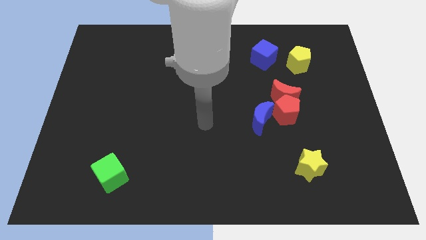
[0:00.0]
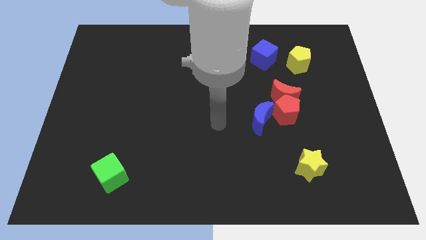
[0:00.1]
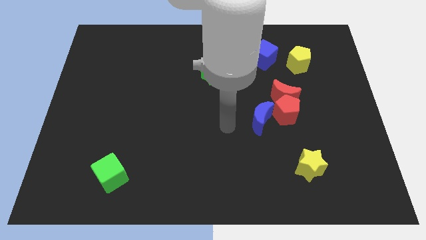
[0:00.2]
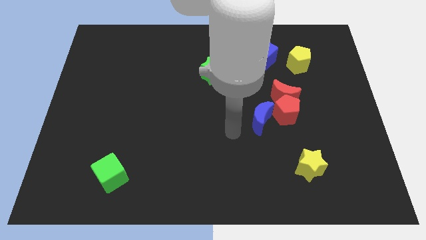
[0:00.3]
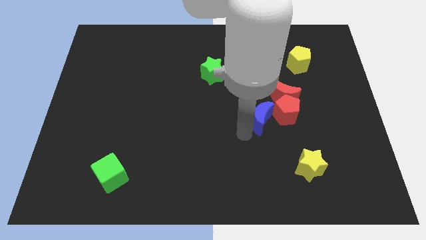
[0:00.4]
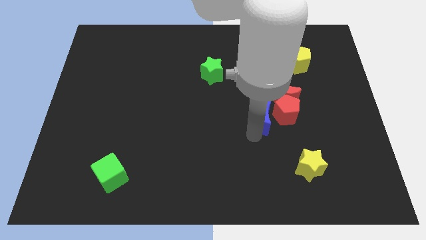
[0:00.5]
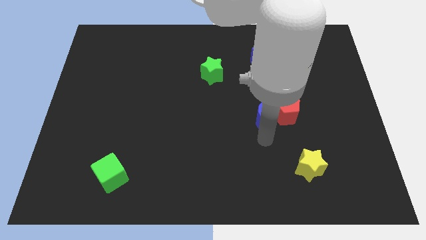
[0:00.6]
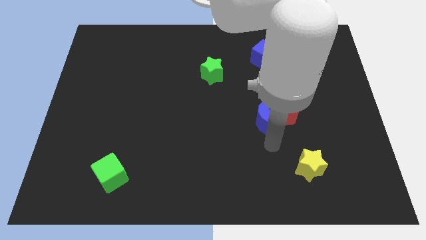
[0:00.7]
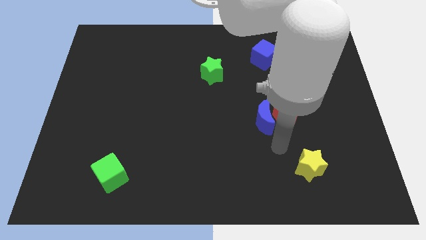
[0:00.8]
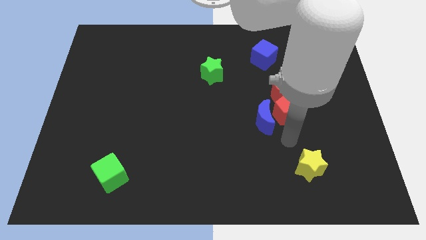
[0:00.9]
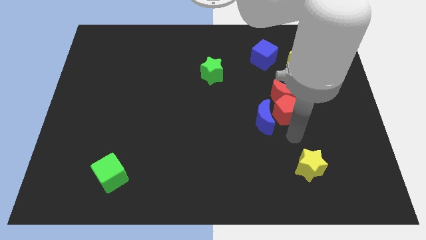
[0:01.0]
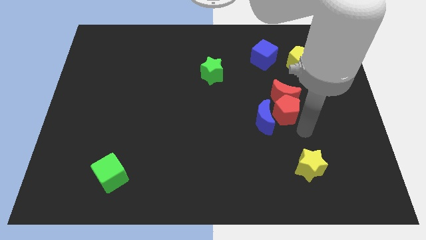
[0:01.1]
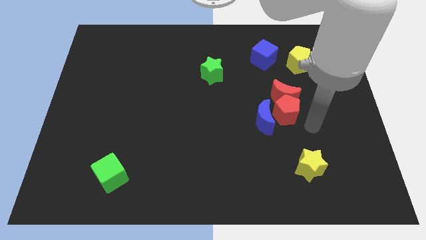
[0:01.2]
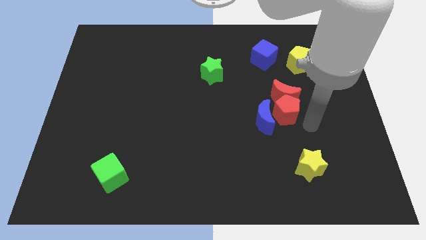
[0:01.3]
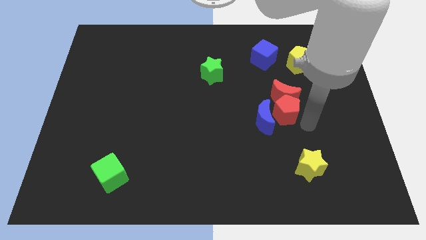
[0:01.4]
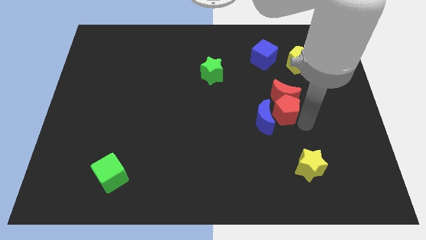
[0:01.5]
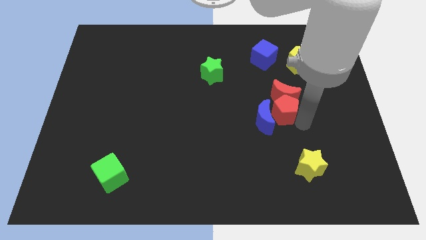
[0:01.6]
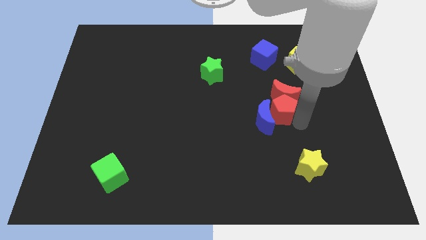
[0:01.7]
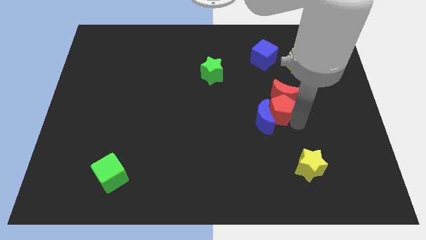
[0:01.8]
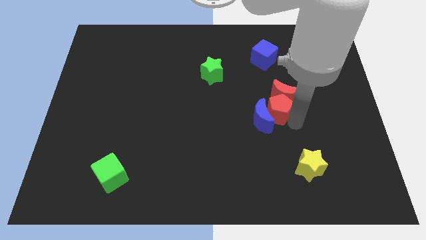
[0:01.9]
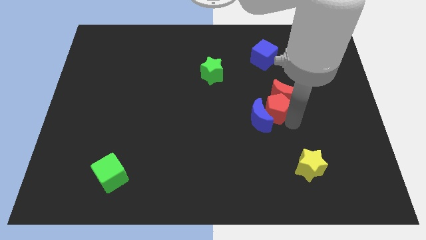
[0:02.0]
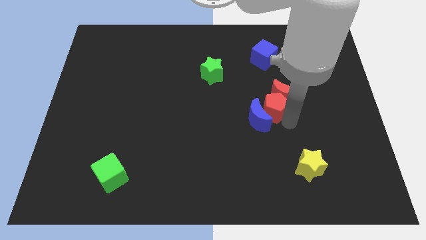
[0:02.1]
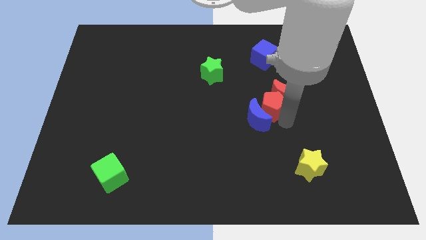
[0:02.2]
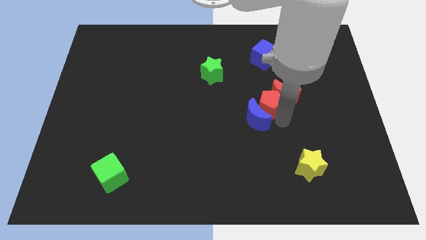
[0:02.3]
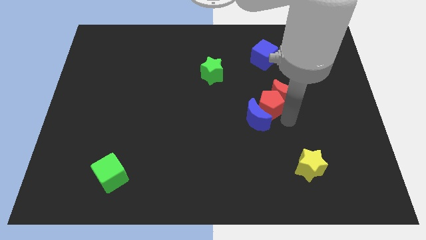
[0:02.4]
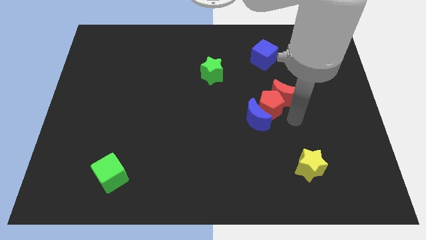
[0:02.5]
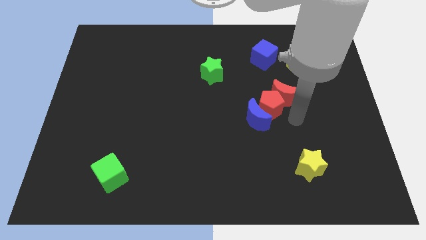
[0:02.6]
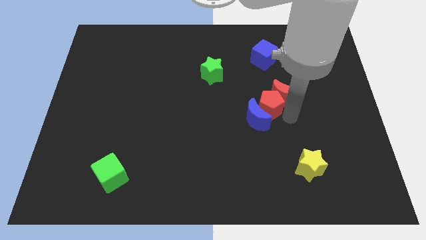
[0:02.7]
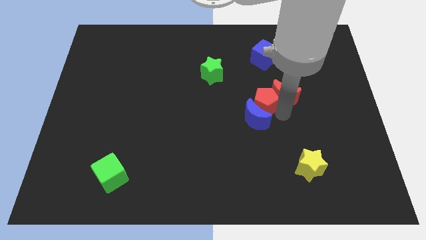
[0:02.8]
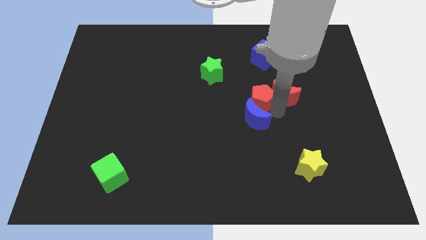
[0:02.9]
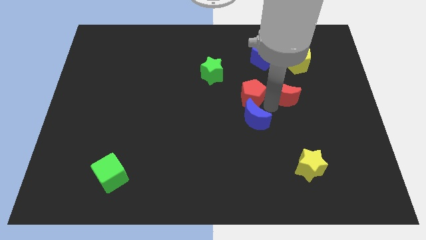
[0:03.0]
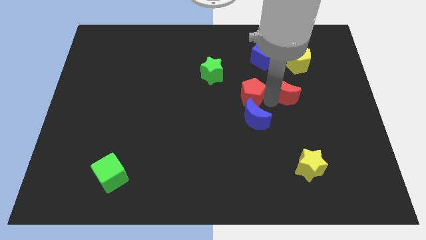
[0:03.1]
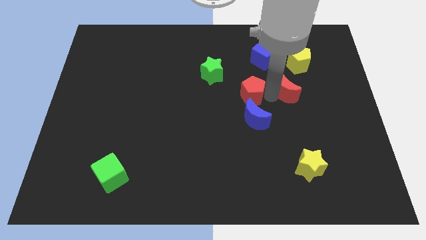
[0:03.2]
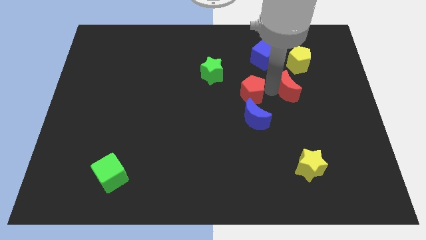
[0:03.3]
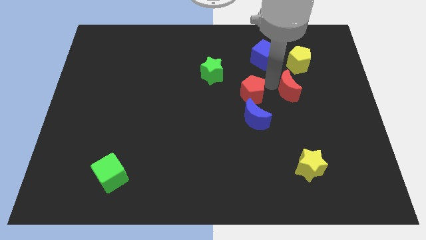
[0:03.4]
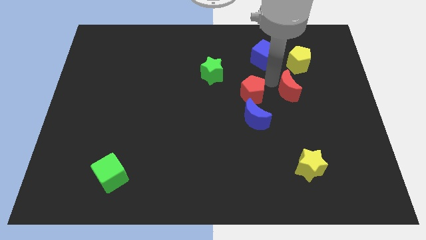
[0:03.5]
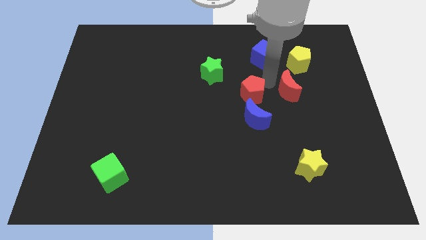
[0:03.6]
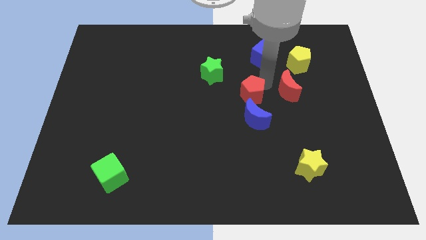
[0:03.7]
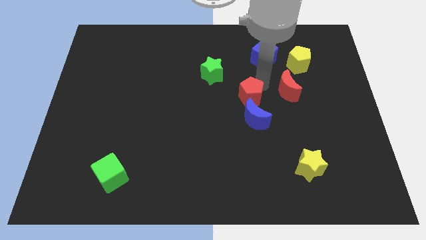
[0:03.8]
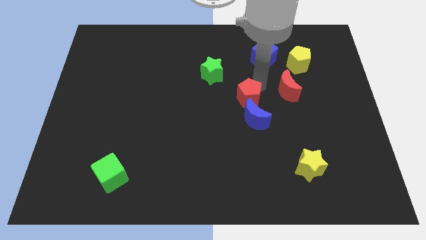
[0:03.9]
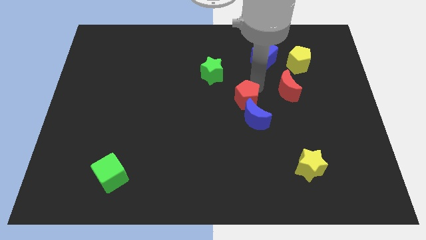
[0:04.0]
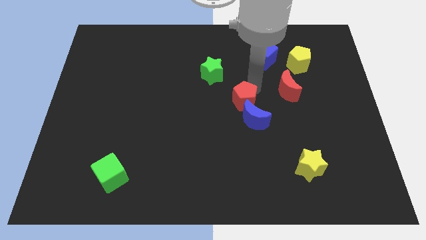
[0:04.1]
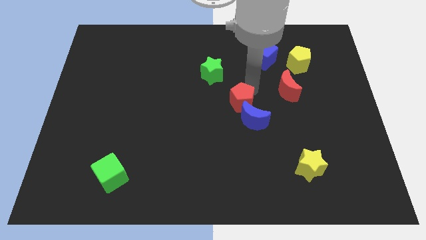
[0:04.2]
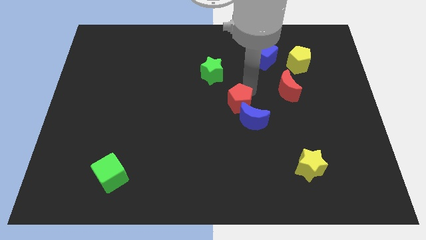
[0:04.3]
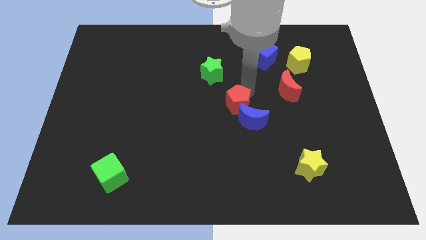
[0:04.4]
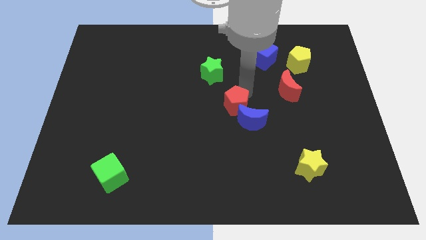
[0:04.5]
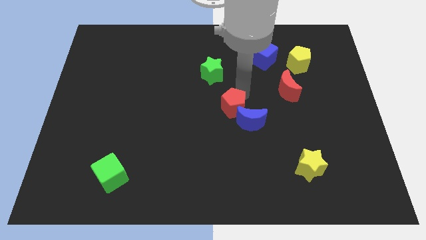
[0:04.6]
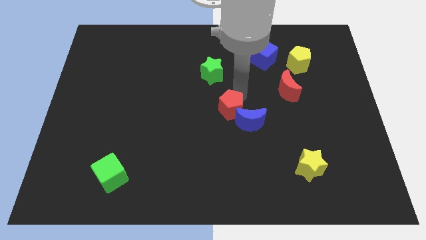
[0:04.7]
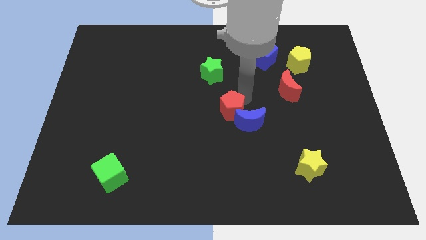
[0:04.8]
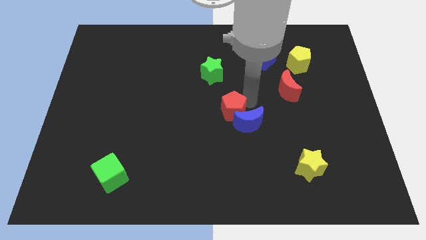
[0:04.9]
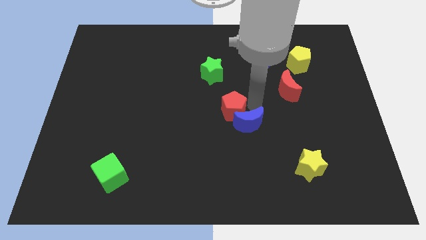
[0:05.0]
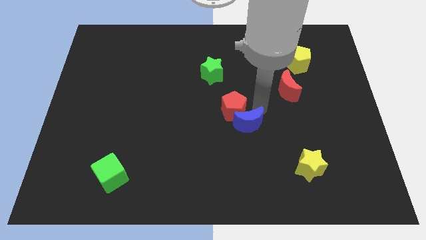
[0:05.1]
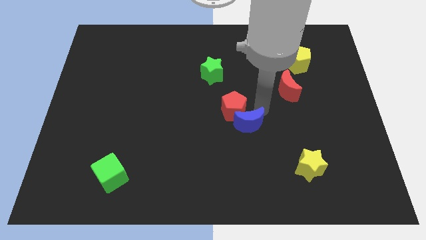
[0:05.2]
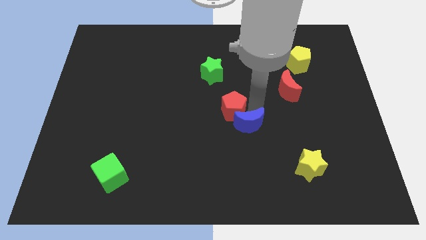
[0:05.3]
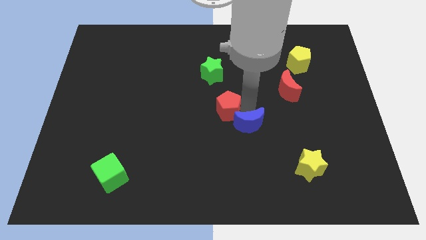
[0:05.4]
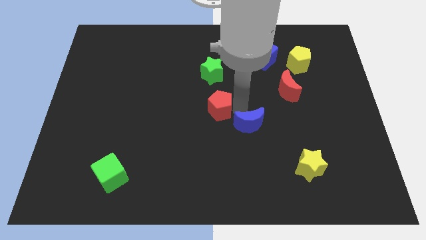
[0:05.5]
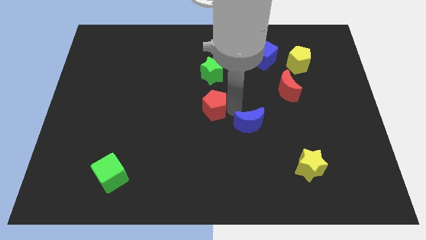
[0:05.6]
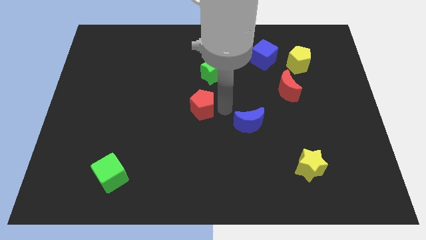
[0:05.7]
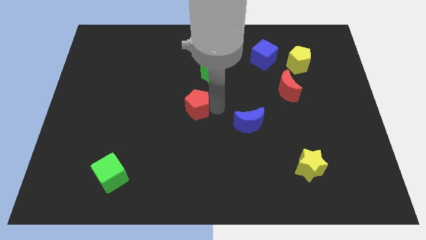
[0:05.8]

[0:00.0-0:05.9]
slide the red pentagon to the left

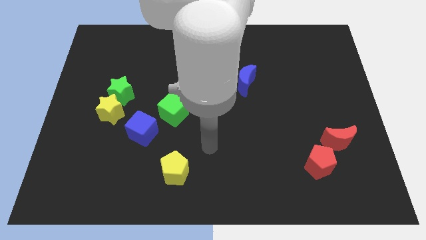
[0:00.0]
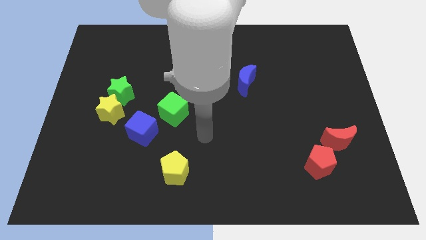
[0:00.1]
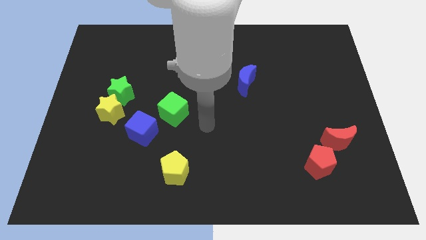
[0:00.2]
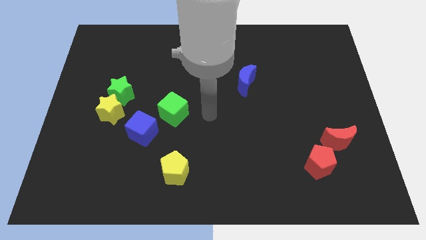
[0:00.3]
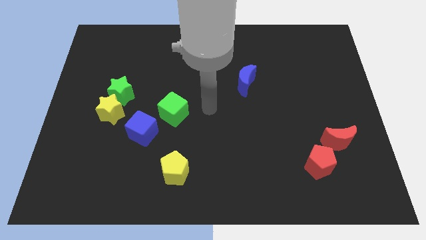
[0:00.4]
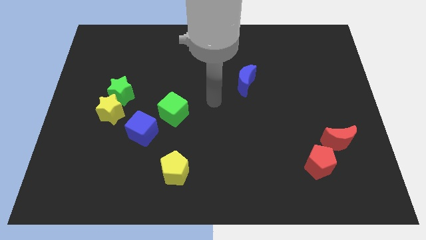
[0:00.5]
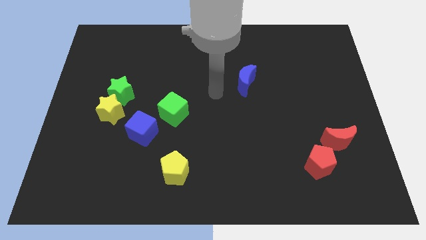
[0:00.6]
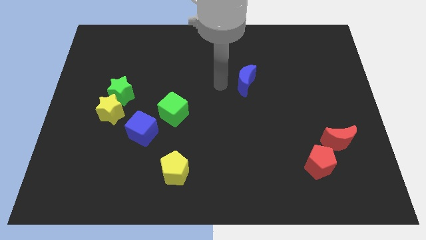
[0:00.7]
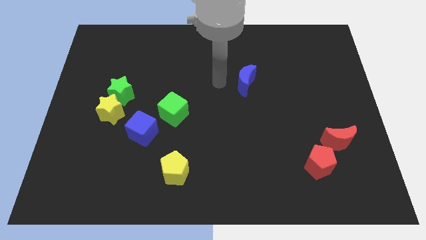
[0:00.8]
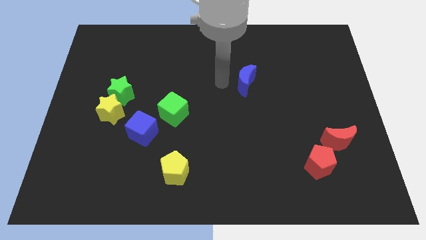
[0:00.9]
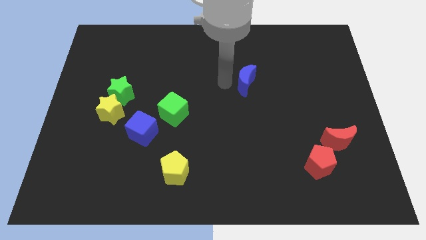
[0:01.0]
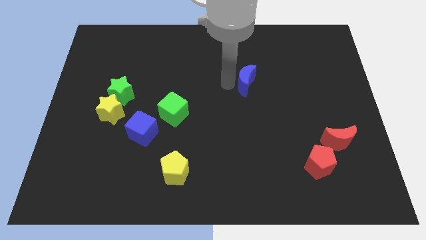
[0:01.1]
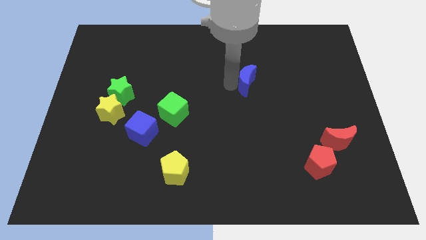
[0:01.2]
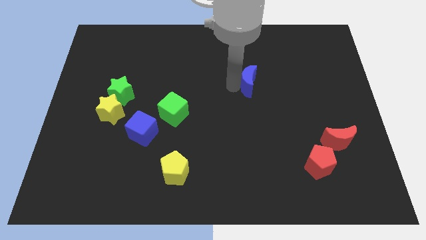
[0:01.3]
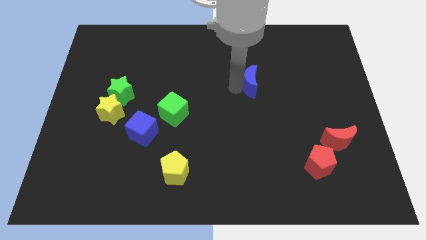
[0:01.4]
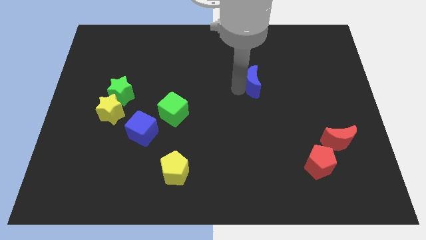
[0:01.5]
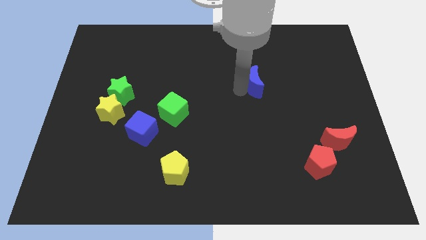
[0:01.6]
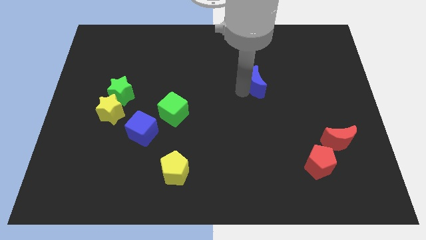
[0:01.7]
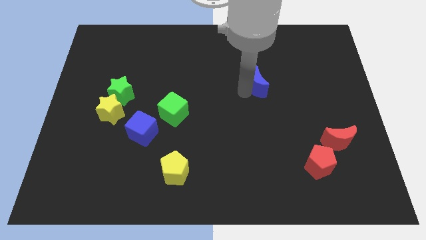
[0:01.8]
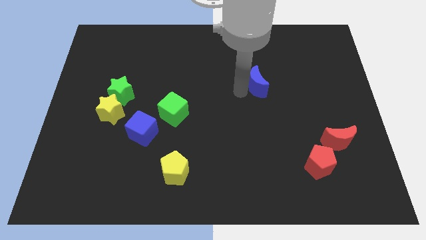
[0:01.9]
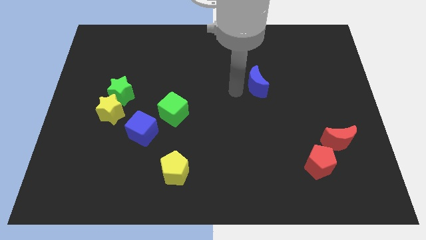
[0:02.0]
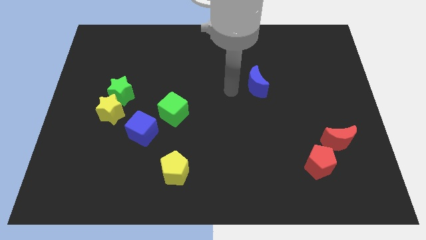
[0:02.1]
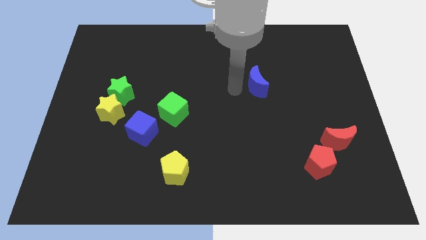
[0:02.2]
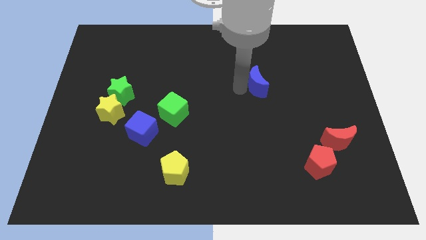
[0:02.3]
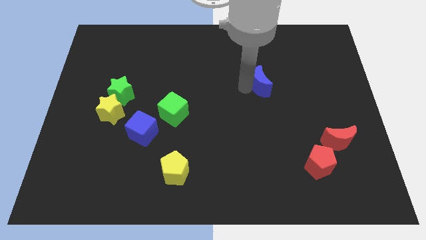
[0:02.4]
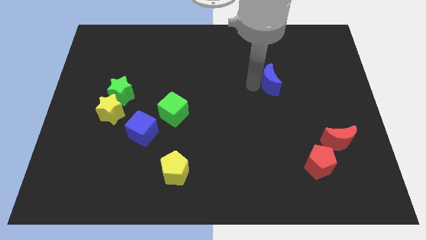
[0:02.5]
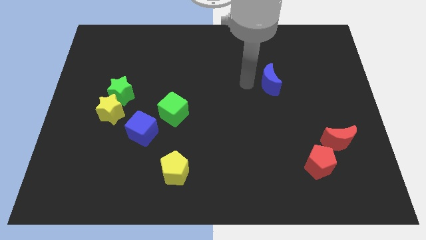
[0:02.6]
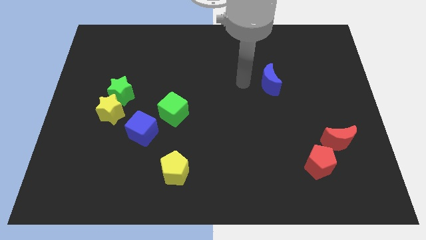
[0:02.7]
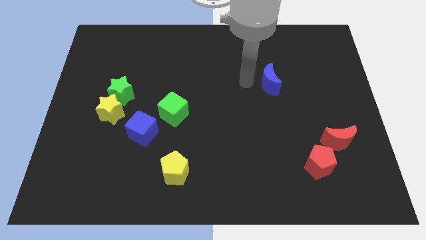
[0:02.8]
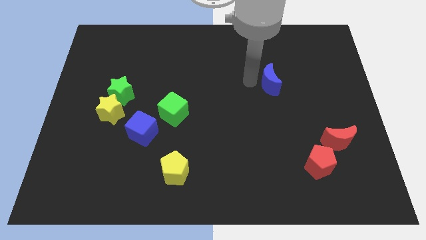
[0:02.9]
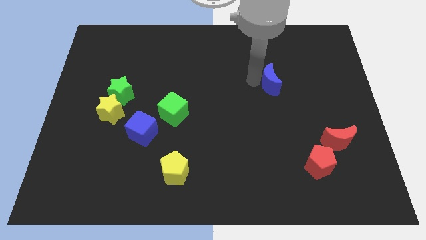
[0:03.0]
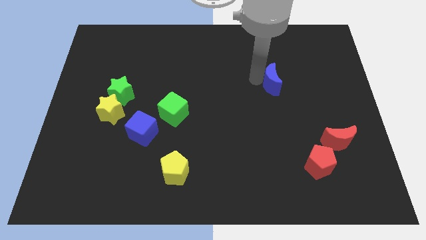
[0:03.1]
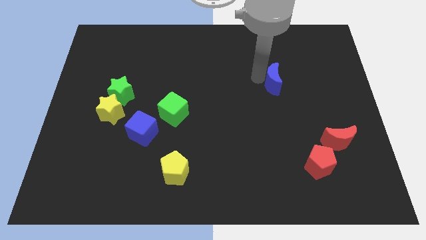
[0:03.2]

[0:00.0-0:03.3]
push the blue moon a little bit right
